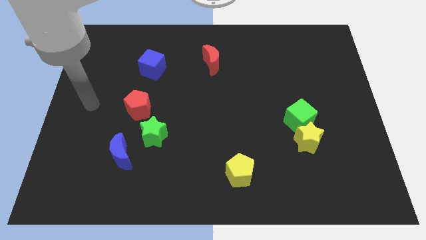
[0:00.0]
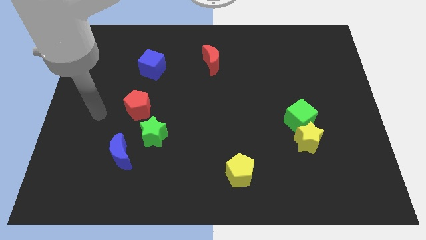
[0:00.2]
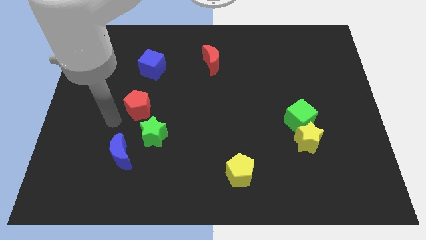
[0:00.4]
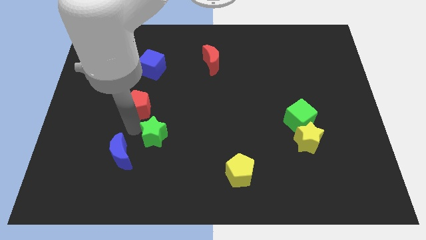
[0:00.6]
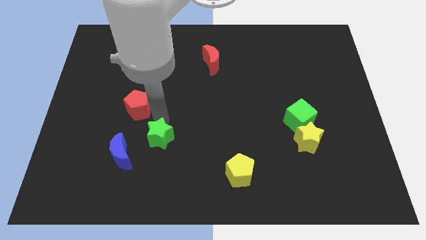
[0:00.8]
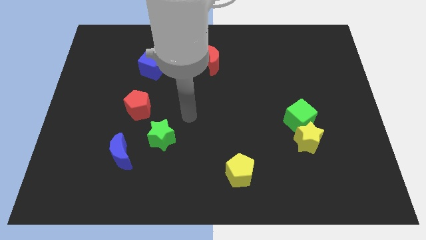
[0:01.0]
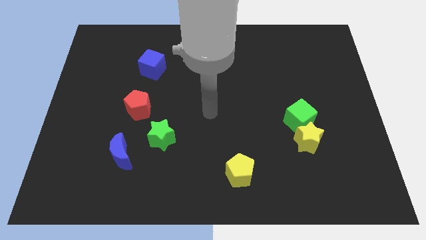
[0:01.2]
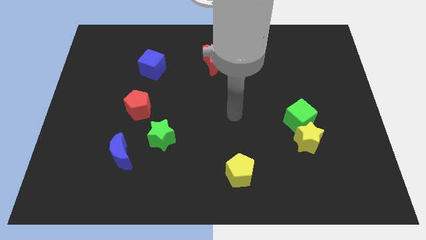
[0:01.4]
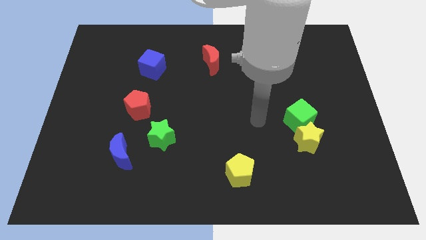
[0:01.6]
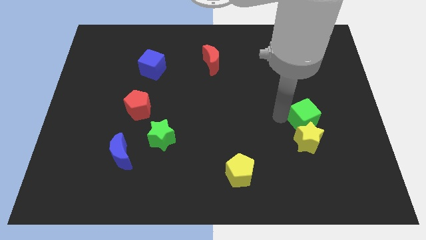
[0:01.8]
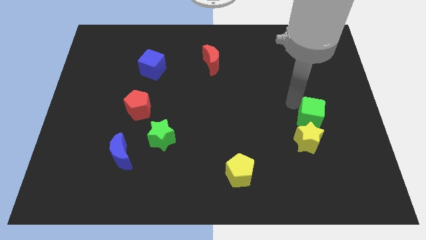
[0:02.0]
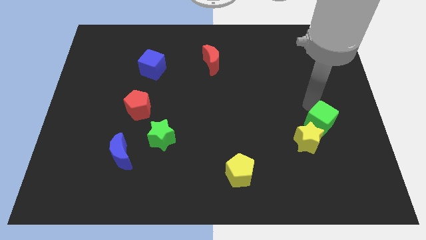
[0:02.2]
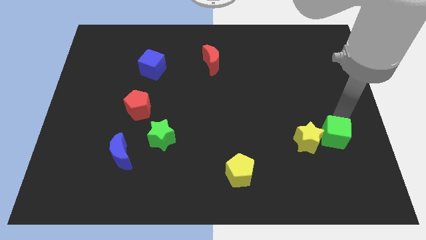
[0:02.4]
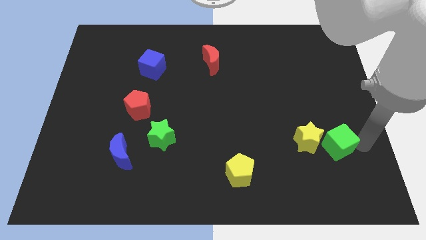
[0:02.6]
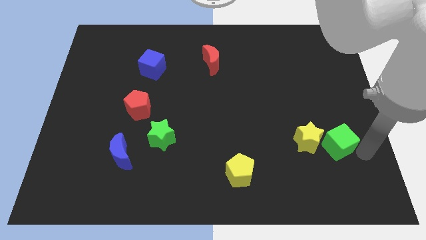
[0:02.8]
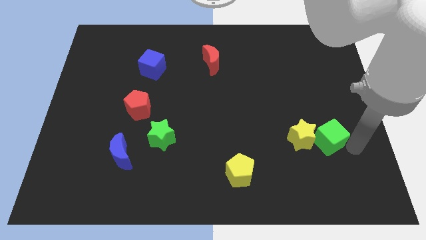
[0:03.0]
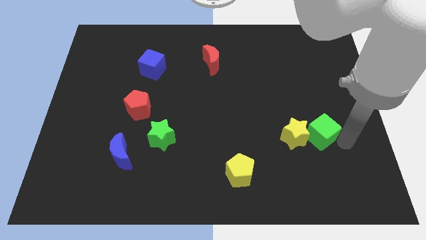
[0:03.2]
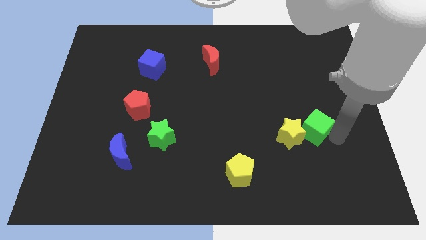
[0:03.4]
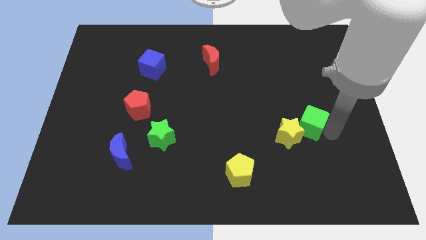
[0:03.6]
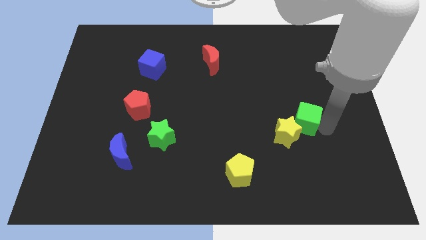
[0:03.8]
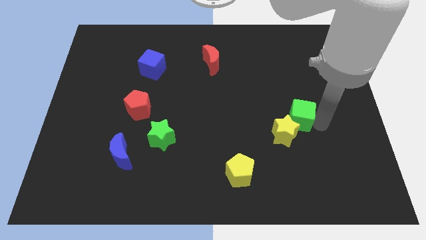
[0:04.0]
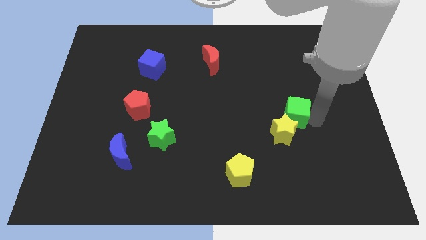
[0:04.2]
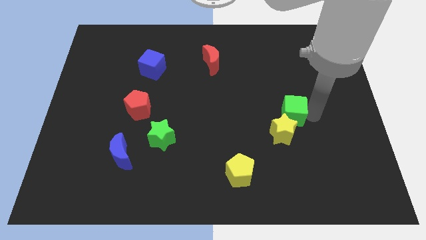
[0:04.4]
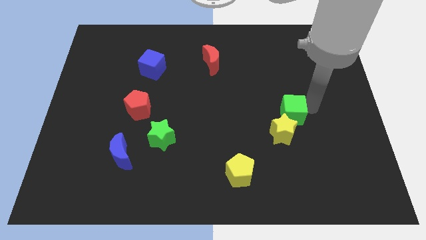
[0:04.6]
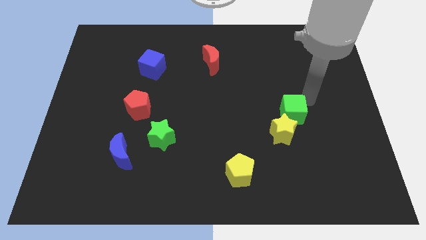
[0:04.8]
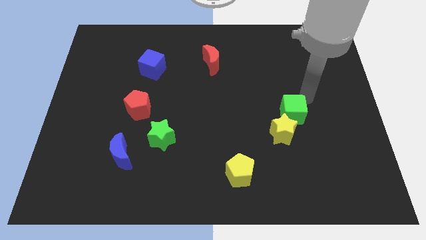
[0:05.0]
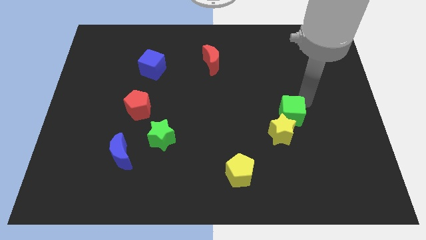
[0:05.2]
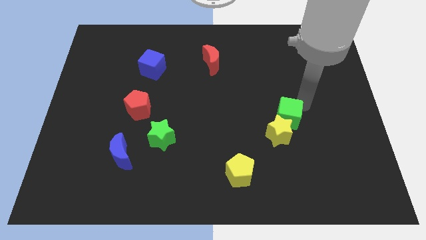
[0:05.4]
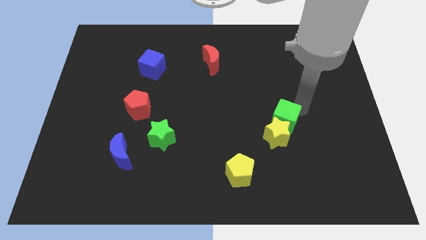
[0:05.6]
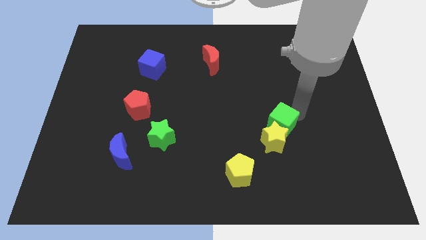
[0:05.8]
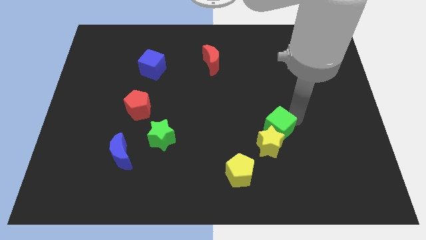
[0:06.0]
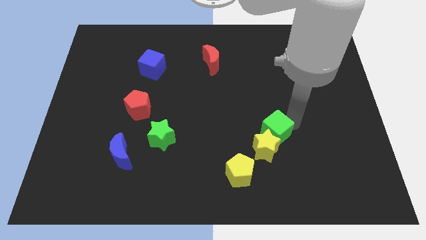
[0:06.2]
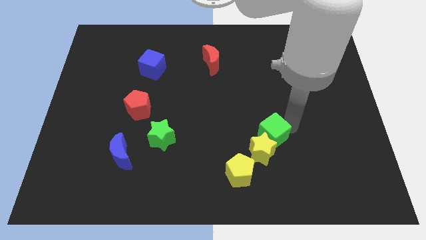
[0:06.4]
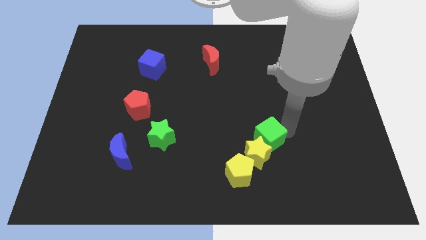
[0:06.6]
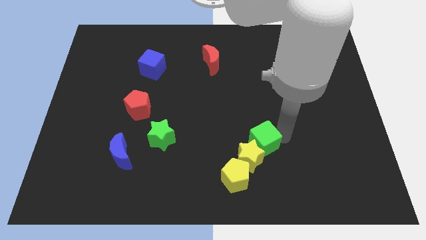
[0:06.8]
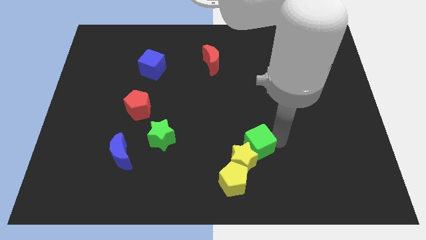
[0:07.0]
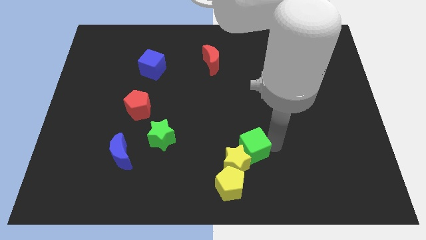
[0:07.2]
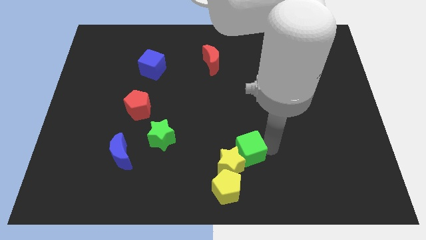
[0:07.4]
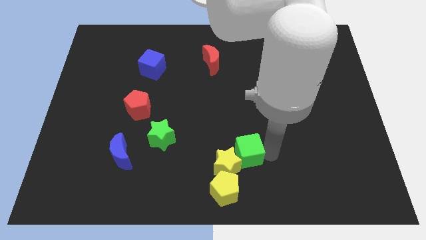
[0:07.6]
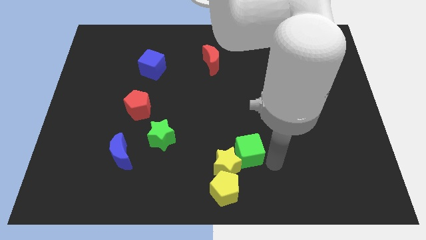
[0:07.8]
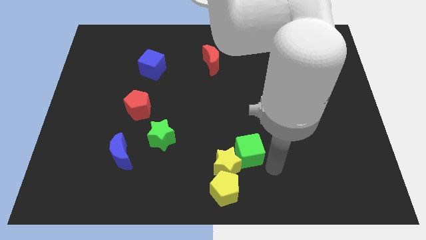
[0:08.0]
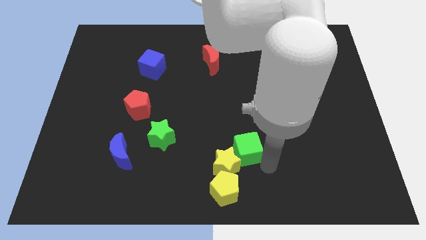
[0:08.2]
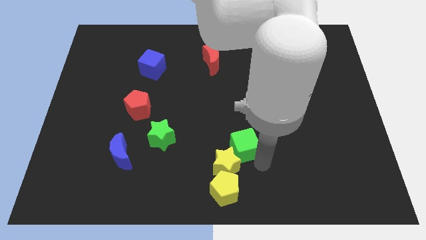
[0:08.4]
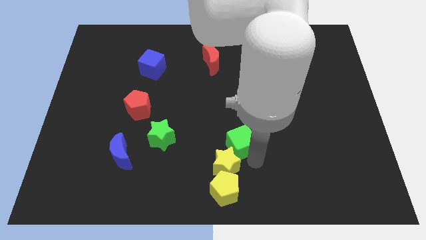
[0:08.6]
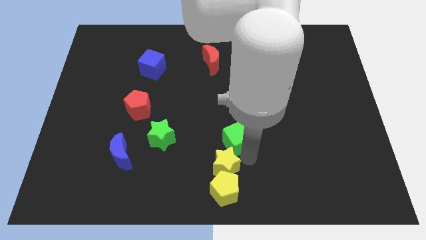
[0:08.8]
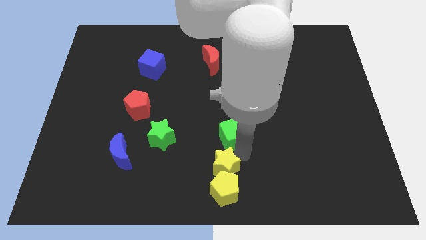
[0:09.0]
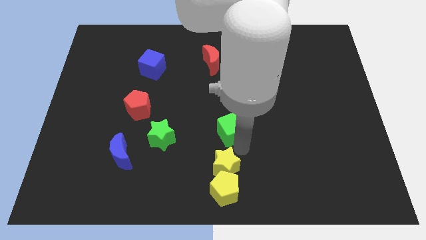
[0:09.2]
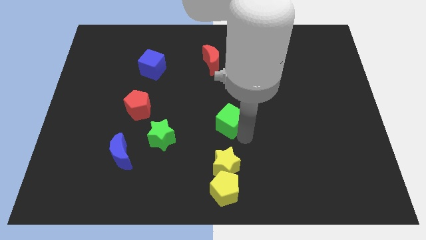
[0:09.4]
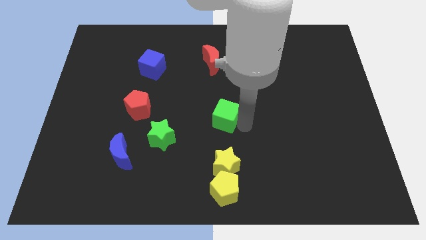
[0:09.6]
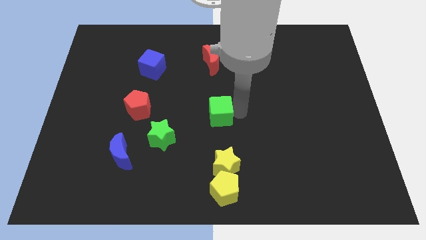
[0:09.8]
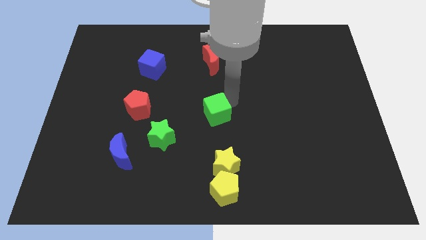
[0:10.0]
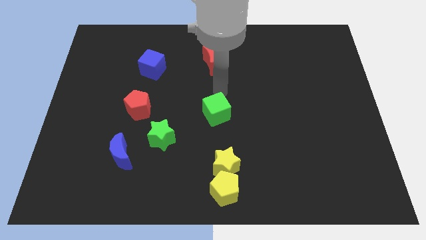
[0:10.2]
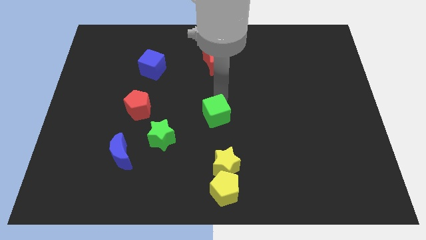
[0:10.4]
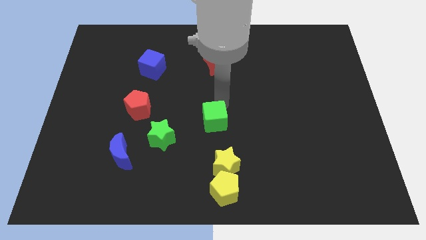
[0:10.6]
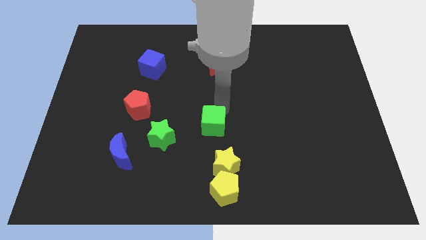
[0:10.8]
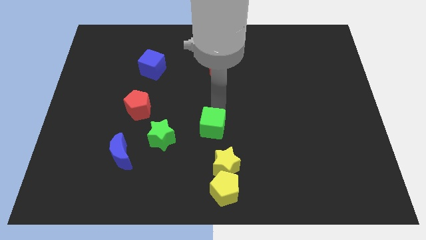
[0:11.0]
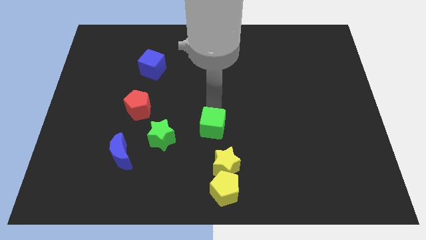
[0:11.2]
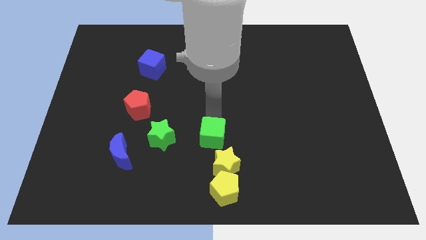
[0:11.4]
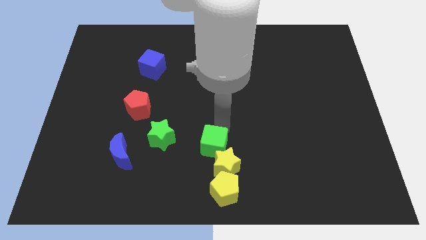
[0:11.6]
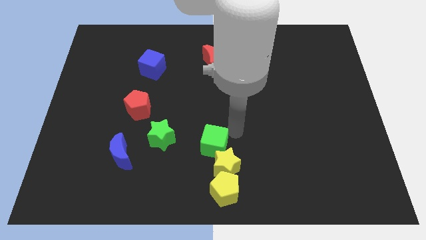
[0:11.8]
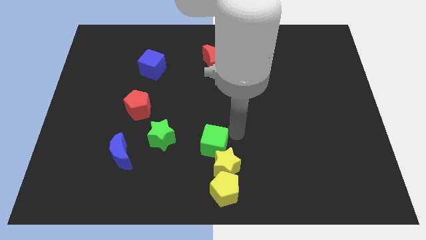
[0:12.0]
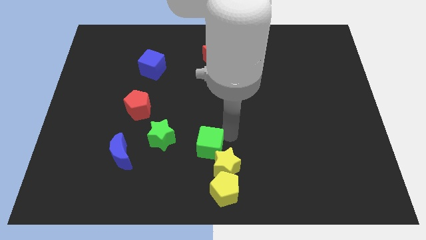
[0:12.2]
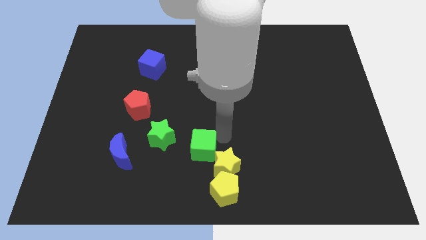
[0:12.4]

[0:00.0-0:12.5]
move the green cube to the bottom right of the green star
